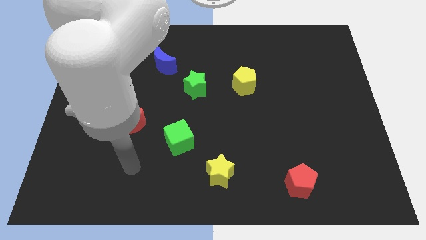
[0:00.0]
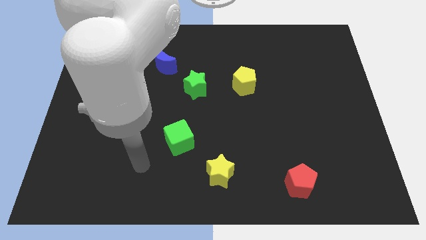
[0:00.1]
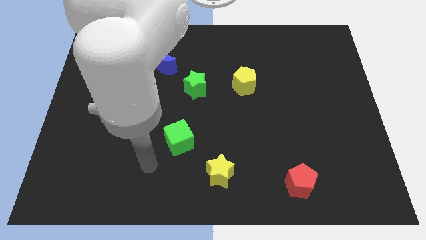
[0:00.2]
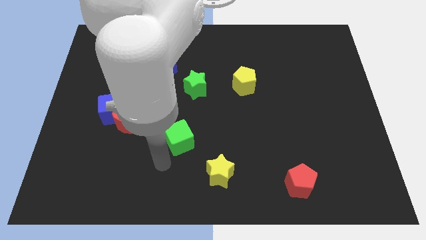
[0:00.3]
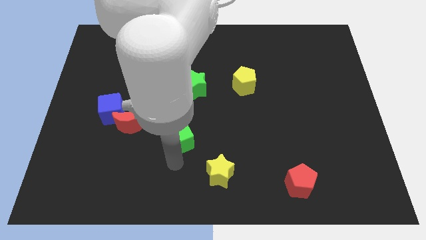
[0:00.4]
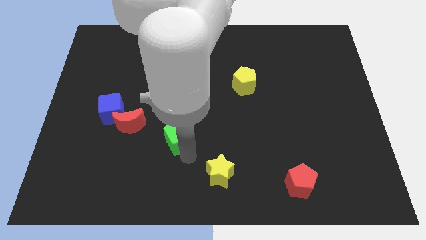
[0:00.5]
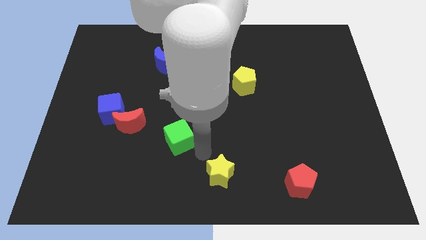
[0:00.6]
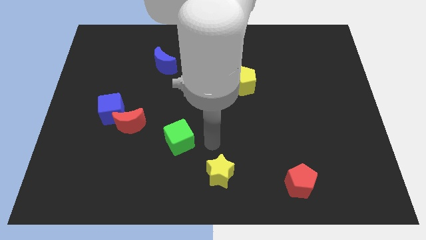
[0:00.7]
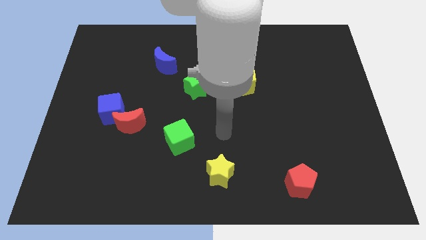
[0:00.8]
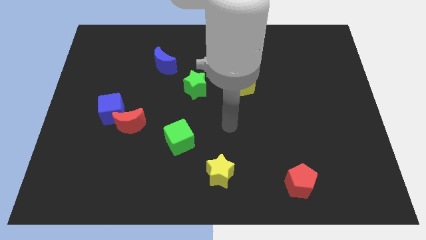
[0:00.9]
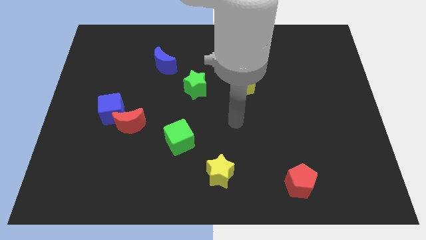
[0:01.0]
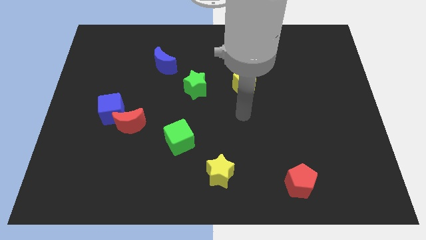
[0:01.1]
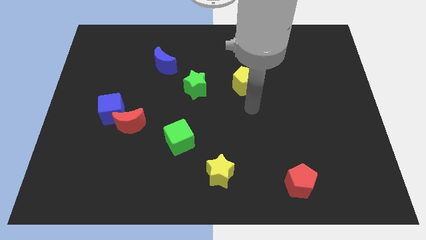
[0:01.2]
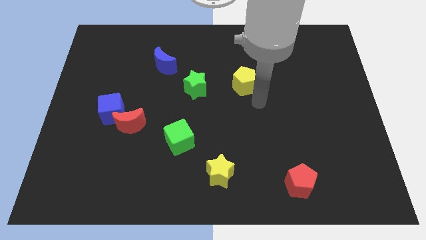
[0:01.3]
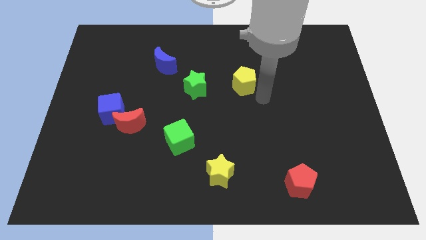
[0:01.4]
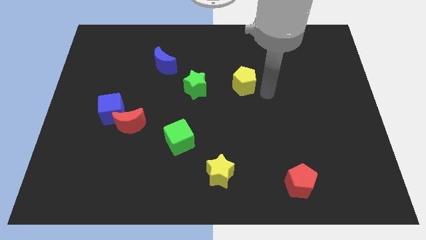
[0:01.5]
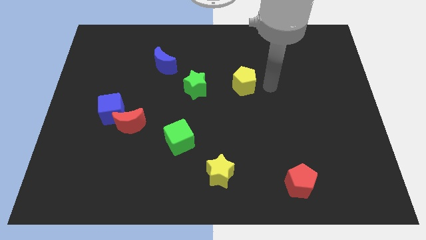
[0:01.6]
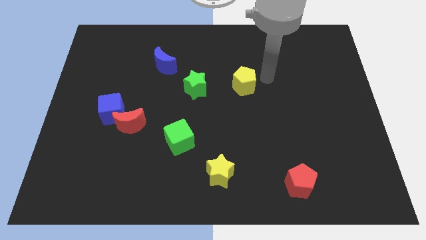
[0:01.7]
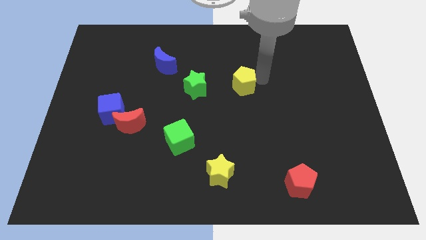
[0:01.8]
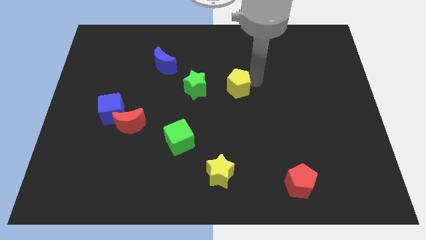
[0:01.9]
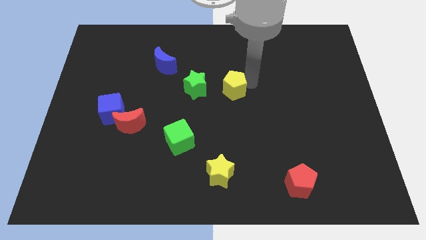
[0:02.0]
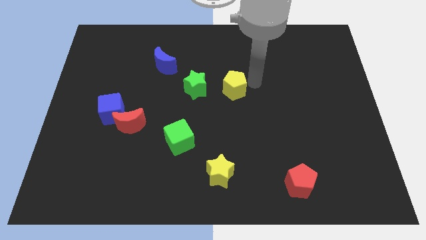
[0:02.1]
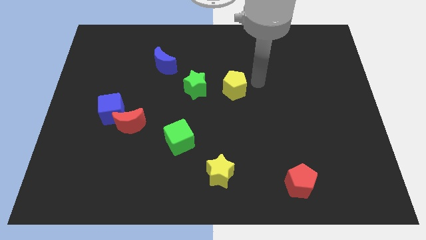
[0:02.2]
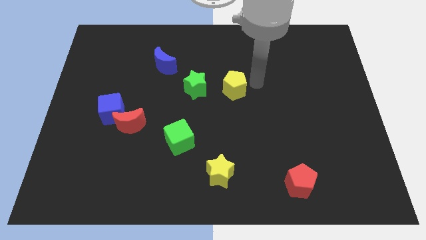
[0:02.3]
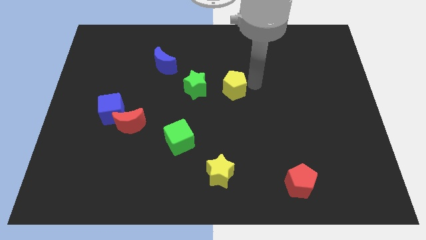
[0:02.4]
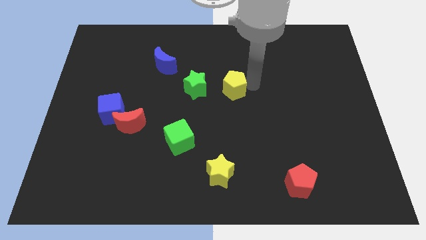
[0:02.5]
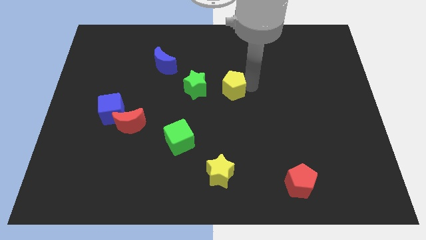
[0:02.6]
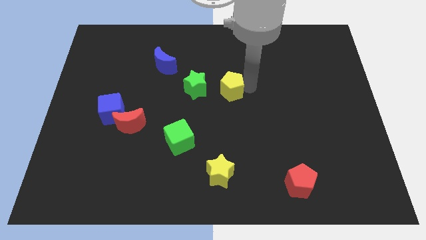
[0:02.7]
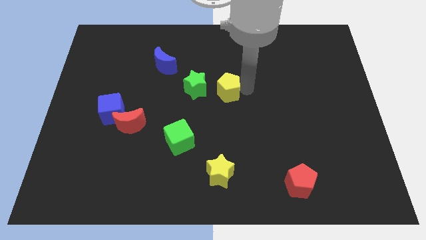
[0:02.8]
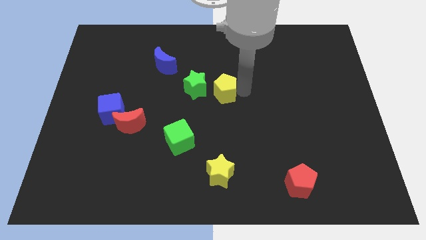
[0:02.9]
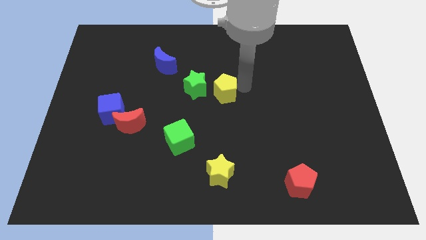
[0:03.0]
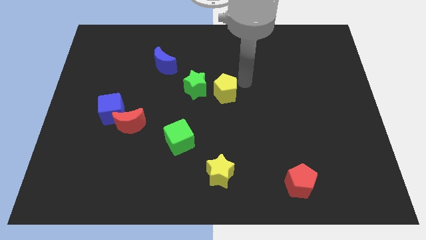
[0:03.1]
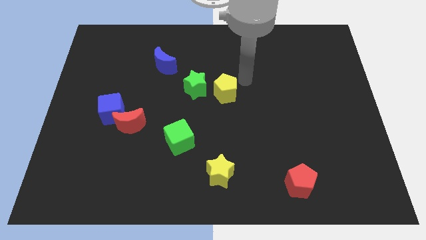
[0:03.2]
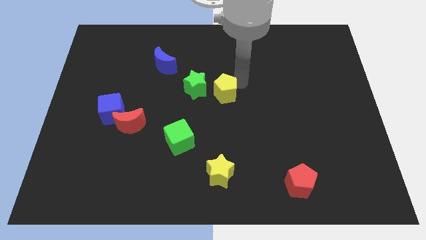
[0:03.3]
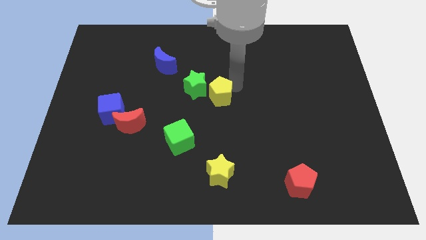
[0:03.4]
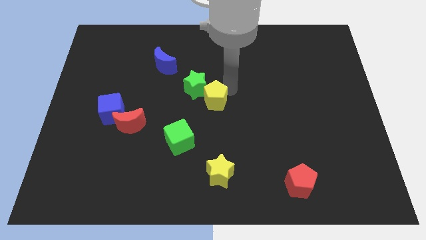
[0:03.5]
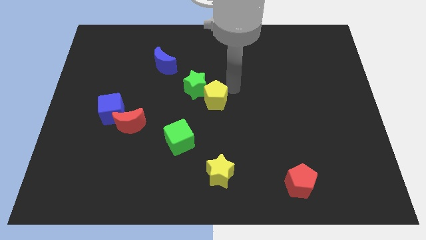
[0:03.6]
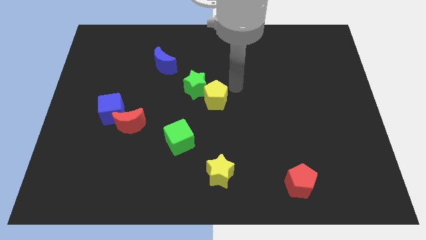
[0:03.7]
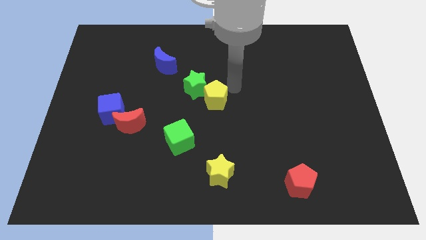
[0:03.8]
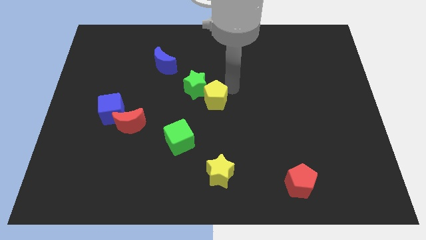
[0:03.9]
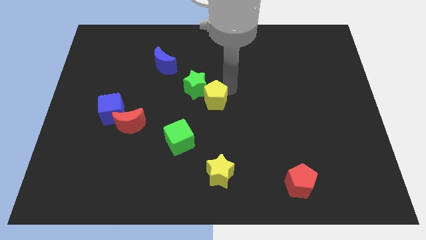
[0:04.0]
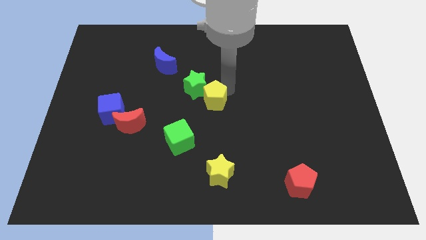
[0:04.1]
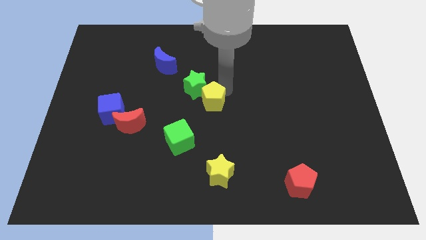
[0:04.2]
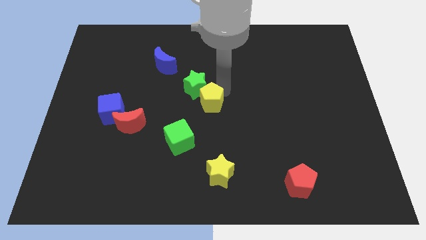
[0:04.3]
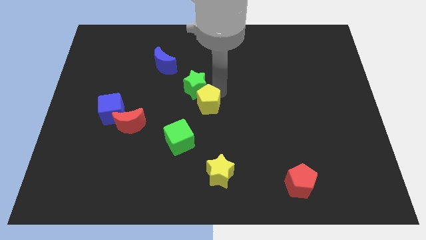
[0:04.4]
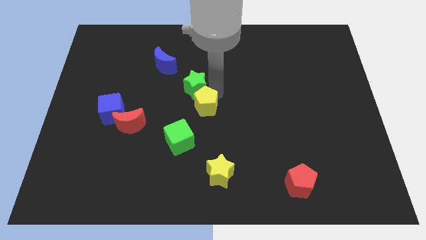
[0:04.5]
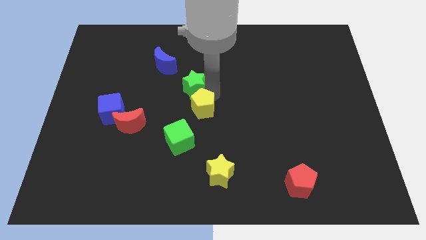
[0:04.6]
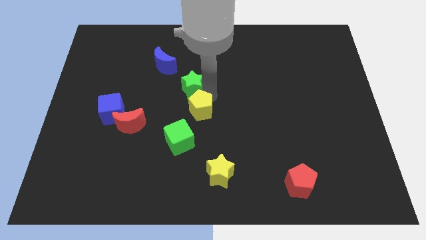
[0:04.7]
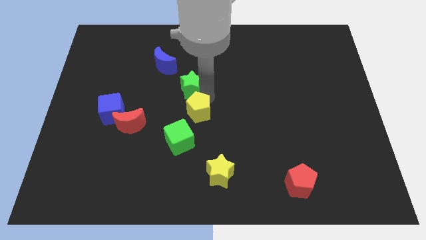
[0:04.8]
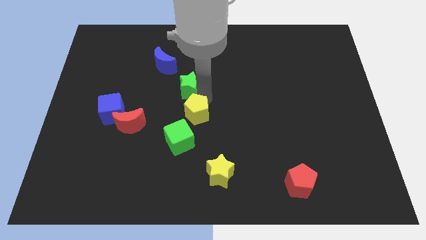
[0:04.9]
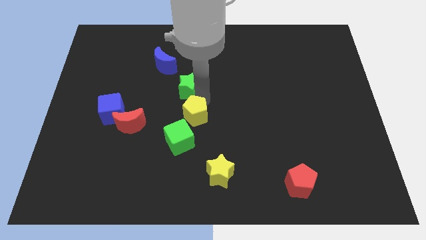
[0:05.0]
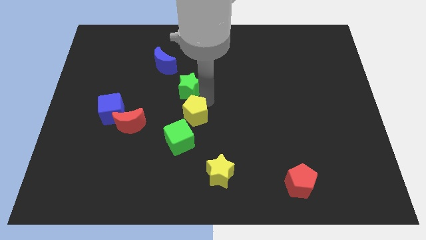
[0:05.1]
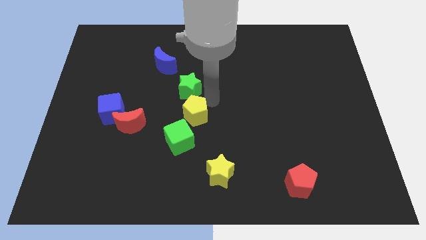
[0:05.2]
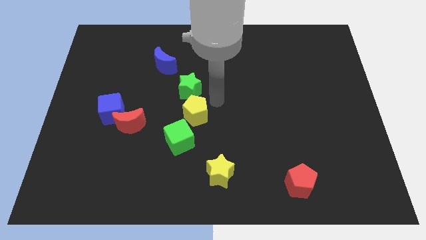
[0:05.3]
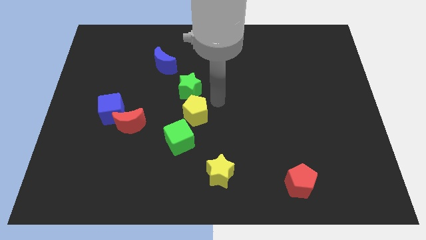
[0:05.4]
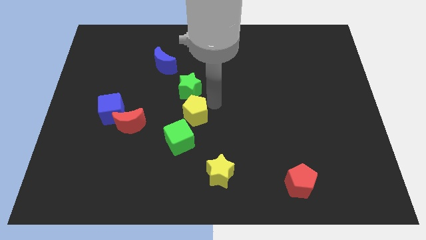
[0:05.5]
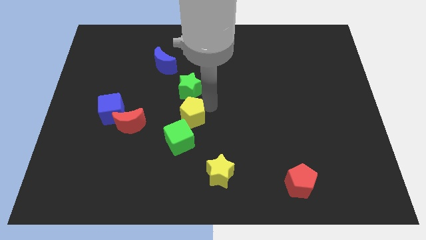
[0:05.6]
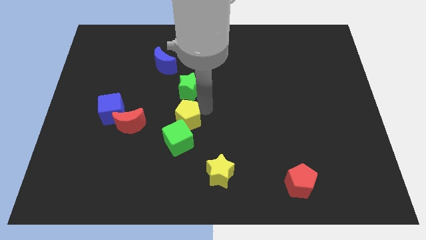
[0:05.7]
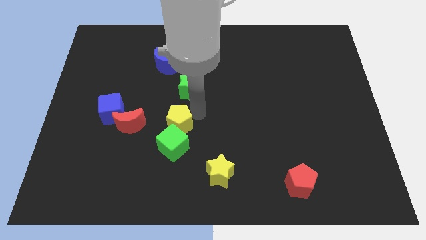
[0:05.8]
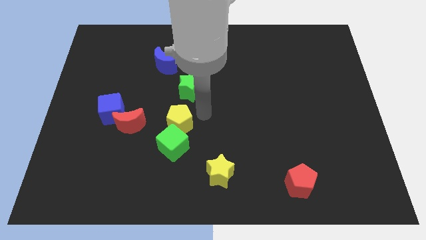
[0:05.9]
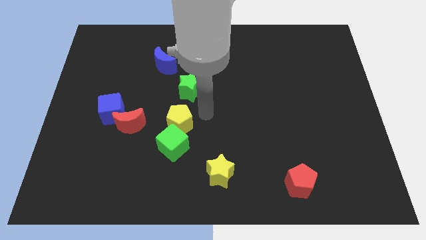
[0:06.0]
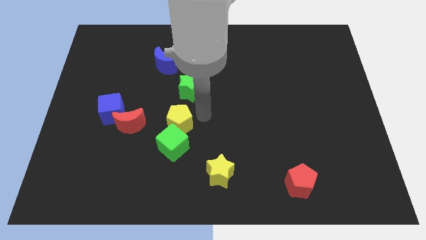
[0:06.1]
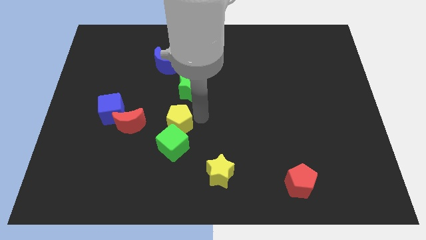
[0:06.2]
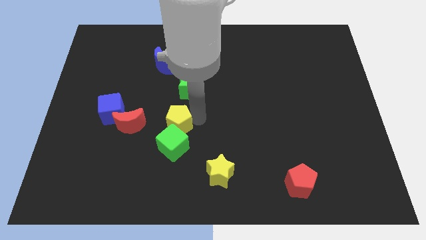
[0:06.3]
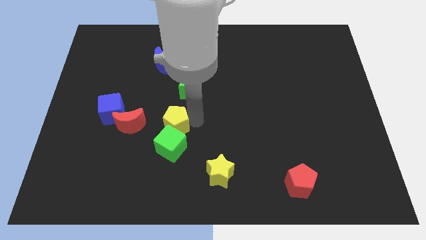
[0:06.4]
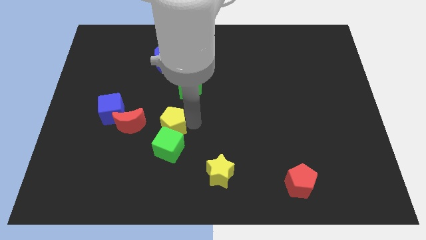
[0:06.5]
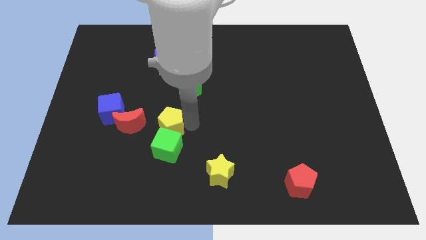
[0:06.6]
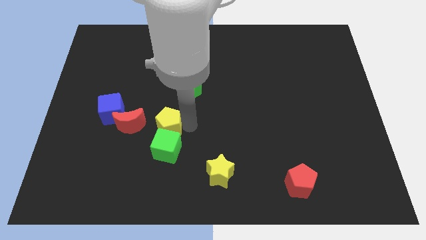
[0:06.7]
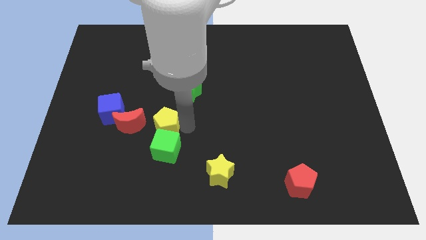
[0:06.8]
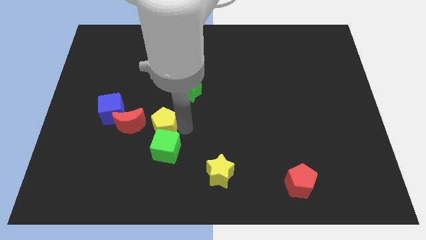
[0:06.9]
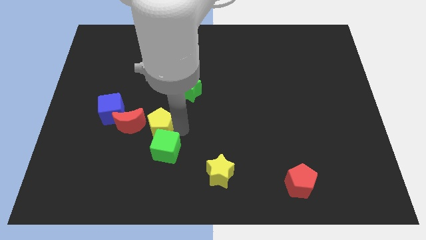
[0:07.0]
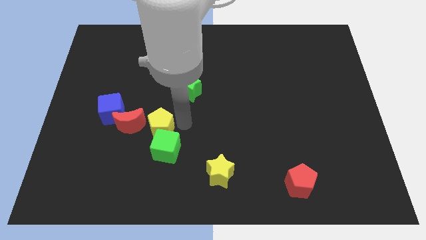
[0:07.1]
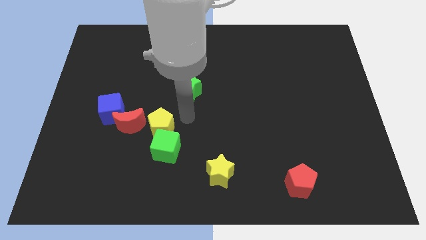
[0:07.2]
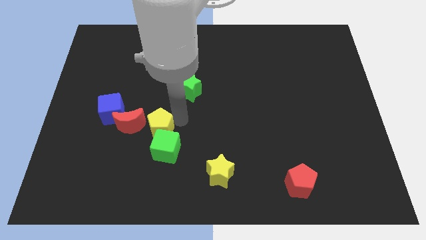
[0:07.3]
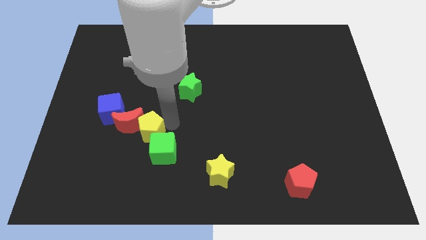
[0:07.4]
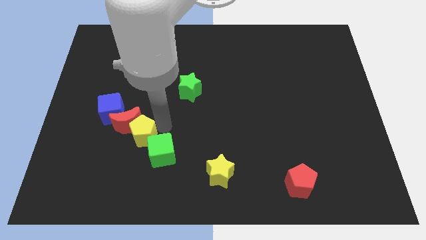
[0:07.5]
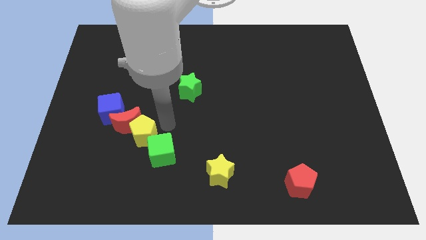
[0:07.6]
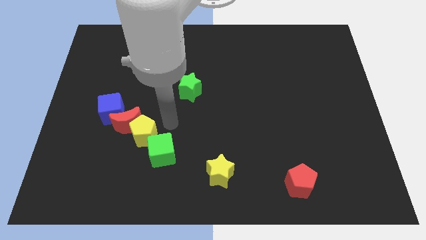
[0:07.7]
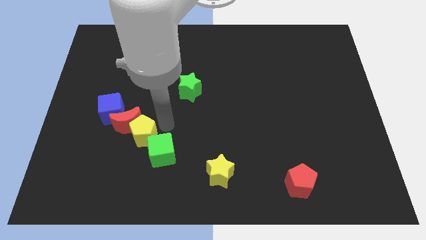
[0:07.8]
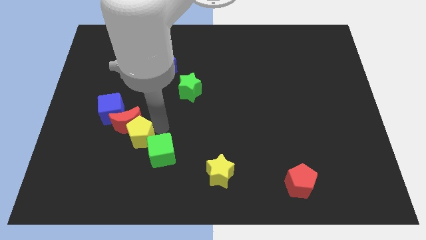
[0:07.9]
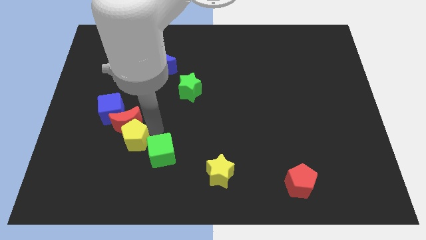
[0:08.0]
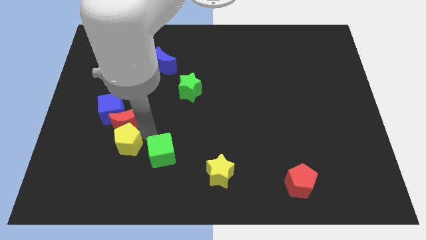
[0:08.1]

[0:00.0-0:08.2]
move the yellow pentagon to the bottom side of the blue cube
